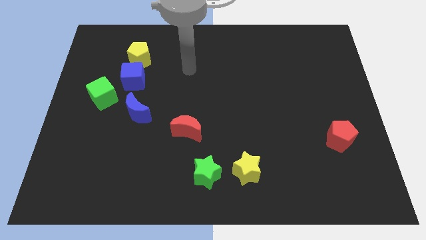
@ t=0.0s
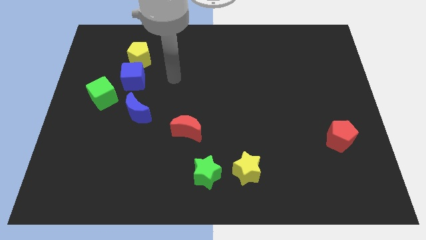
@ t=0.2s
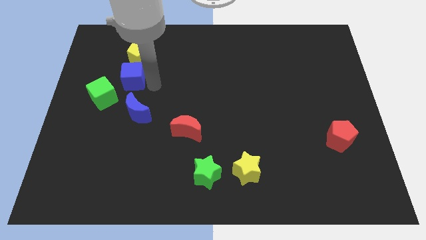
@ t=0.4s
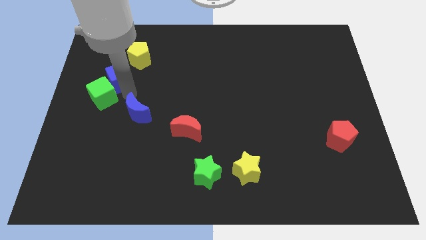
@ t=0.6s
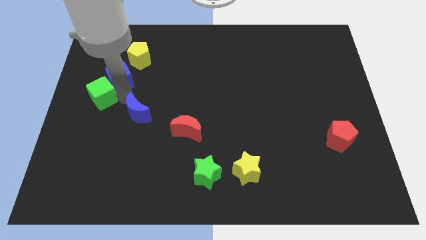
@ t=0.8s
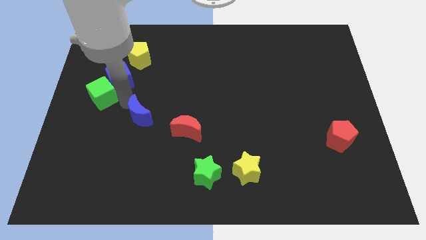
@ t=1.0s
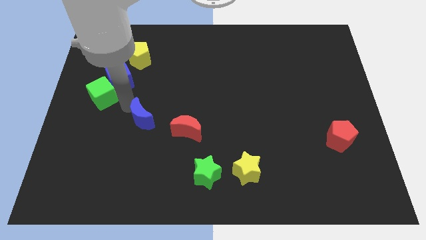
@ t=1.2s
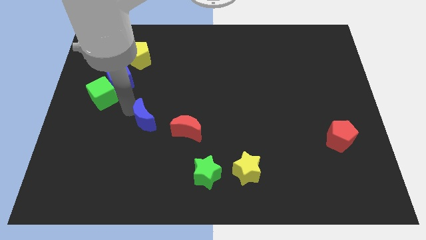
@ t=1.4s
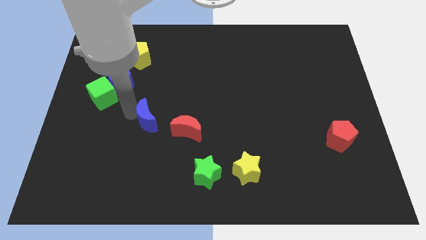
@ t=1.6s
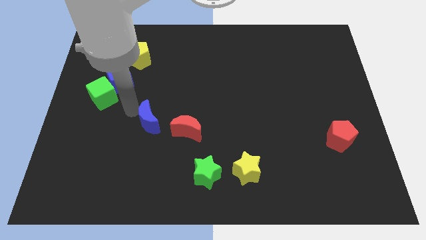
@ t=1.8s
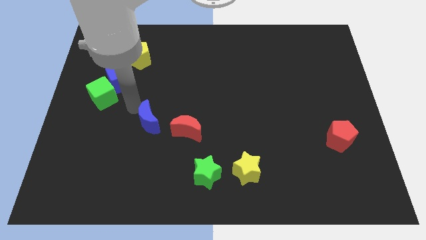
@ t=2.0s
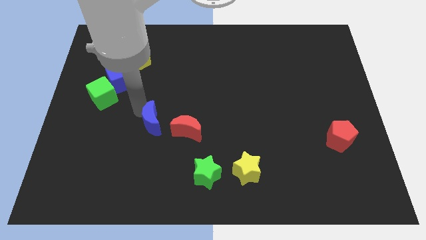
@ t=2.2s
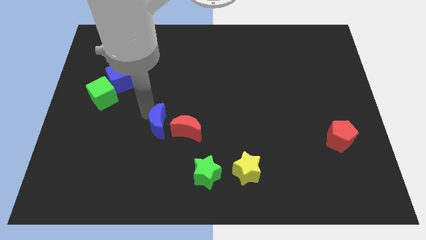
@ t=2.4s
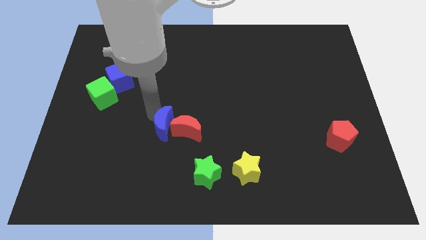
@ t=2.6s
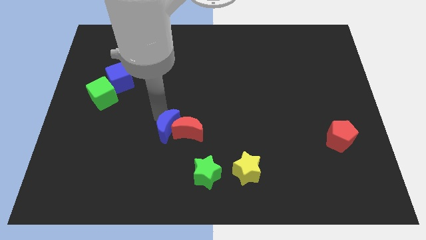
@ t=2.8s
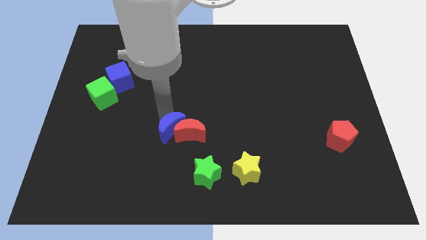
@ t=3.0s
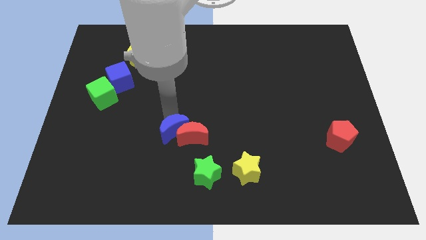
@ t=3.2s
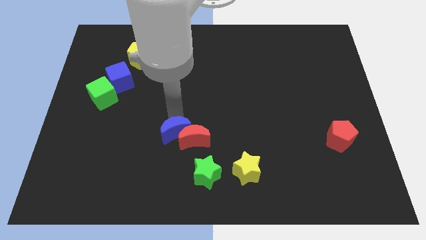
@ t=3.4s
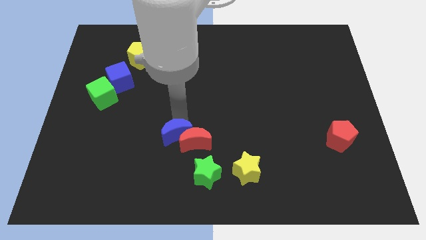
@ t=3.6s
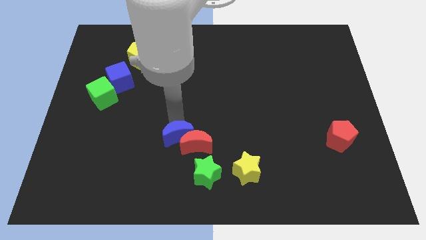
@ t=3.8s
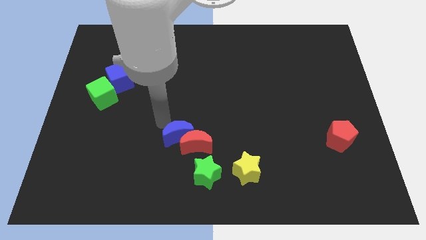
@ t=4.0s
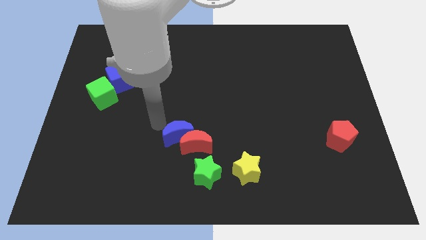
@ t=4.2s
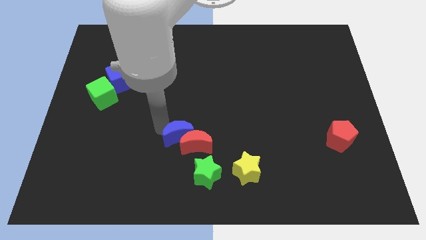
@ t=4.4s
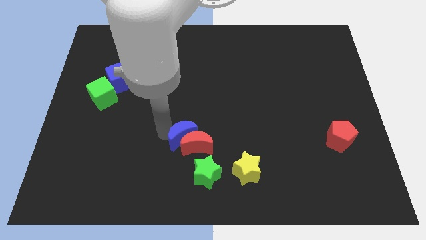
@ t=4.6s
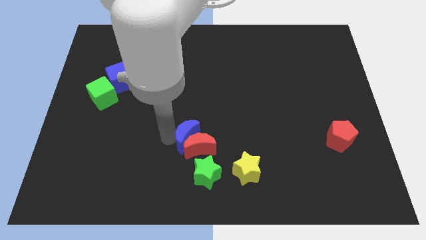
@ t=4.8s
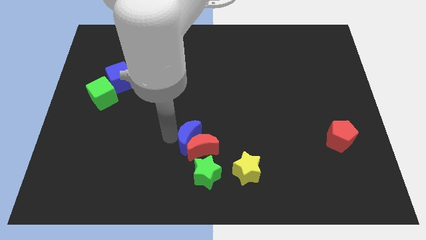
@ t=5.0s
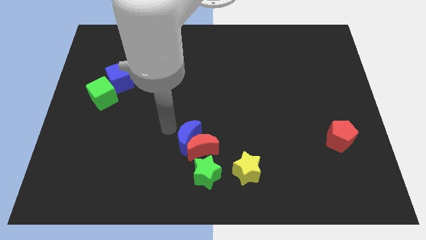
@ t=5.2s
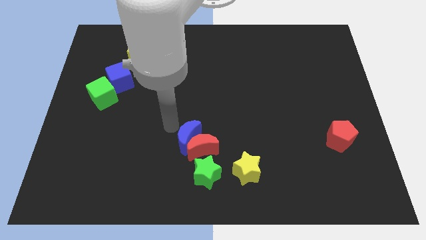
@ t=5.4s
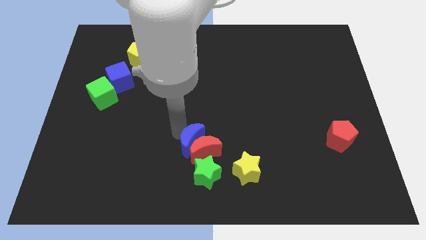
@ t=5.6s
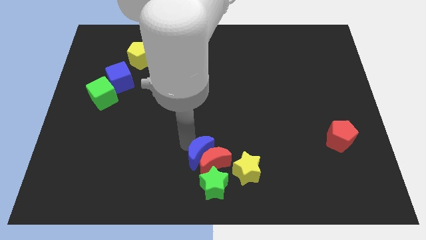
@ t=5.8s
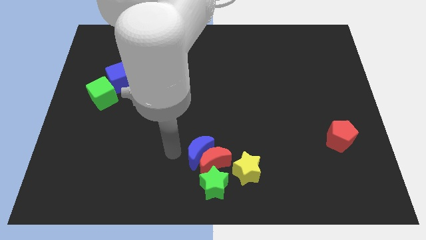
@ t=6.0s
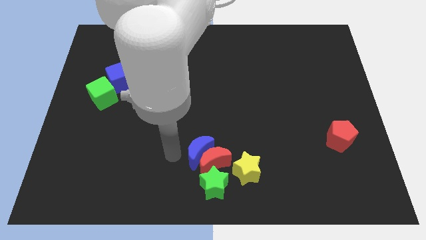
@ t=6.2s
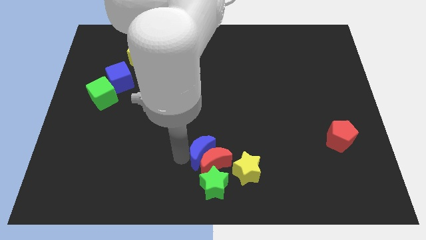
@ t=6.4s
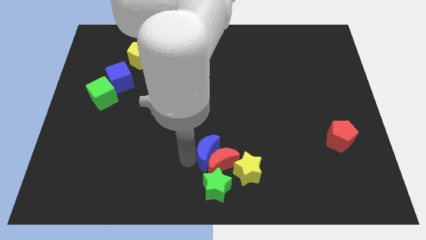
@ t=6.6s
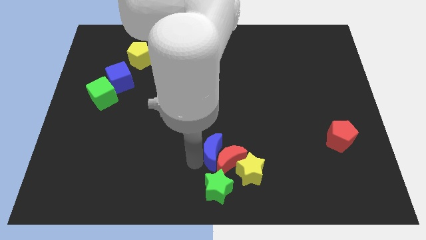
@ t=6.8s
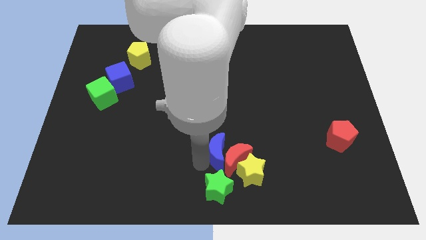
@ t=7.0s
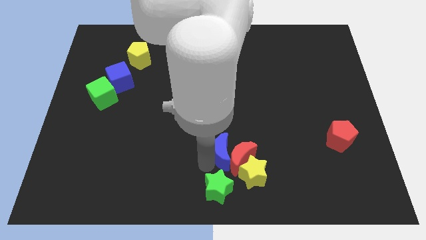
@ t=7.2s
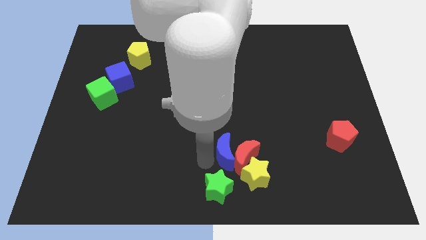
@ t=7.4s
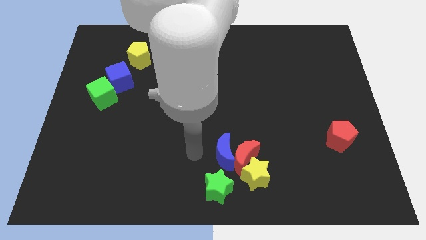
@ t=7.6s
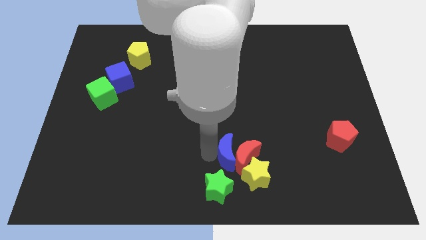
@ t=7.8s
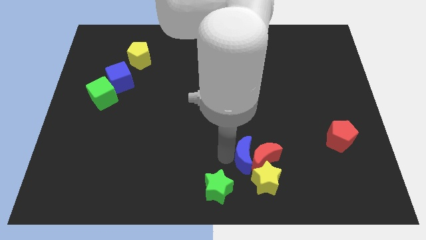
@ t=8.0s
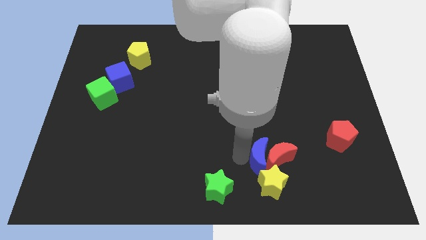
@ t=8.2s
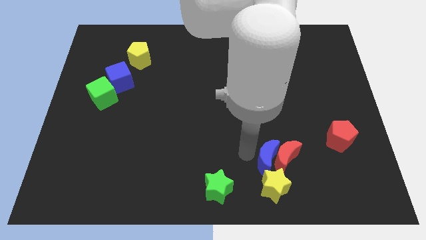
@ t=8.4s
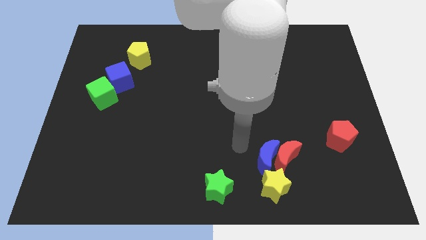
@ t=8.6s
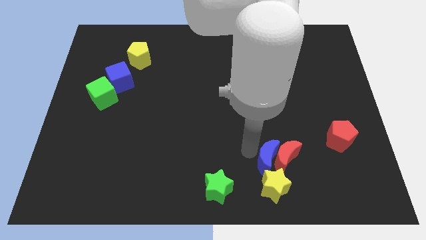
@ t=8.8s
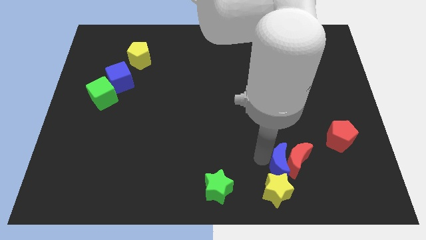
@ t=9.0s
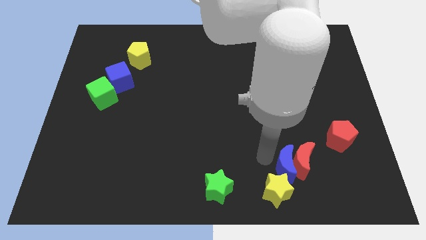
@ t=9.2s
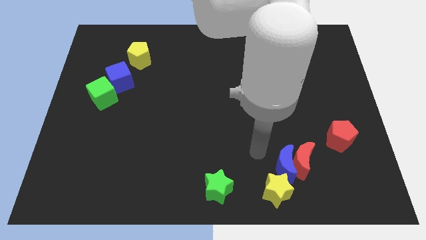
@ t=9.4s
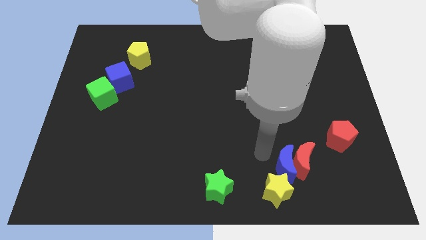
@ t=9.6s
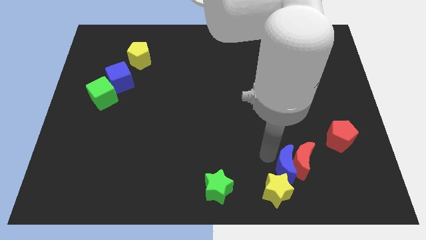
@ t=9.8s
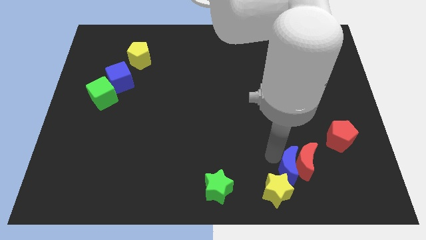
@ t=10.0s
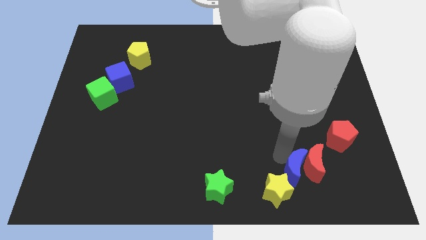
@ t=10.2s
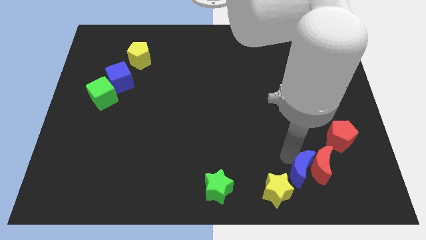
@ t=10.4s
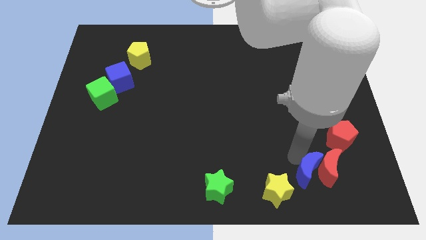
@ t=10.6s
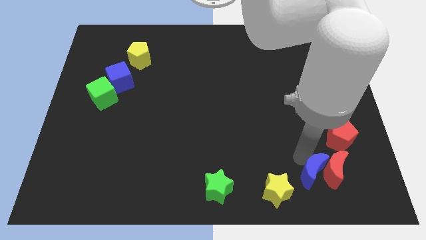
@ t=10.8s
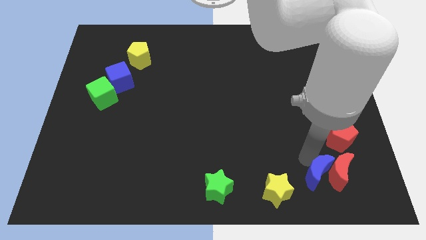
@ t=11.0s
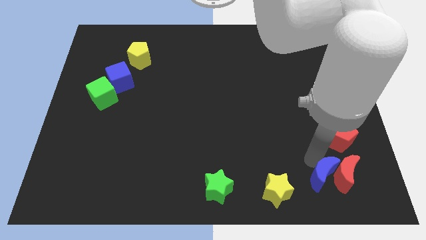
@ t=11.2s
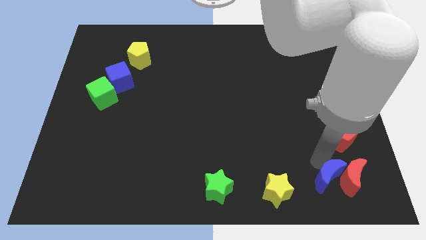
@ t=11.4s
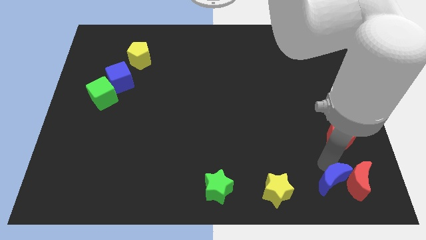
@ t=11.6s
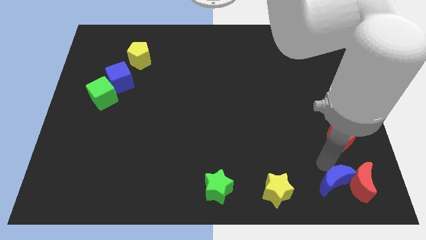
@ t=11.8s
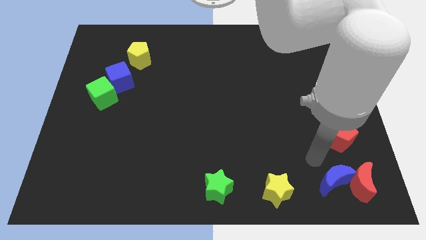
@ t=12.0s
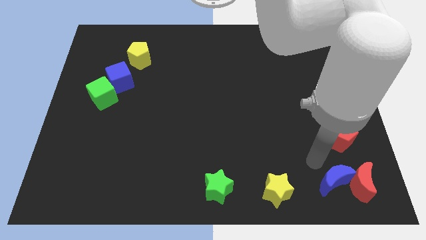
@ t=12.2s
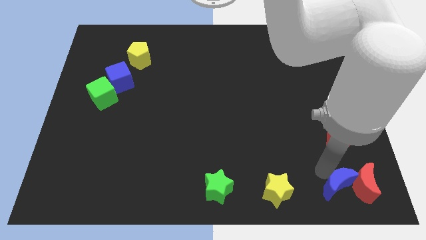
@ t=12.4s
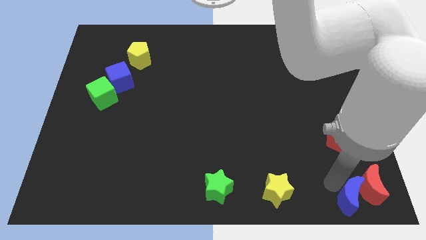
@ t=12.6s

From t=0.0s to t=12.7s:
move the blue moon to the bottom right of the board
